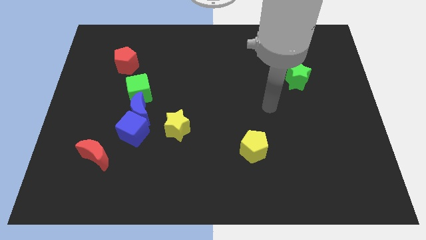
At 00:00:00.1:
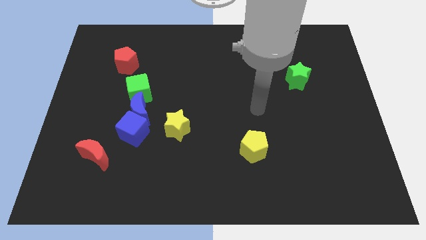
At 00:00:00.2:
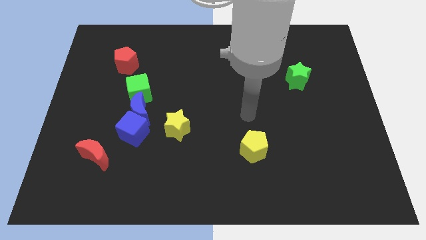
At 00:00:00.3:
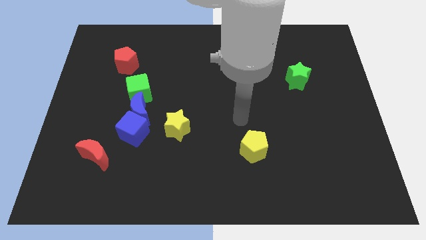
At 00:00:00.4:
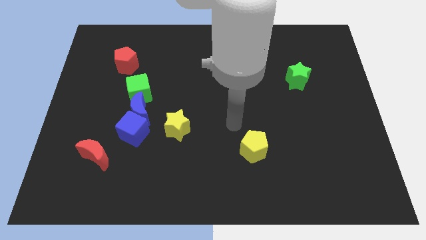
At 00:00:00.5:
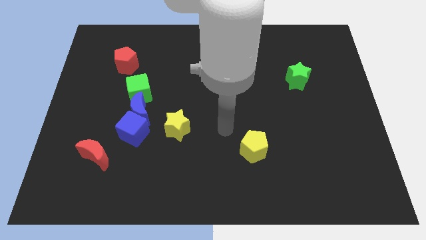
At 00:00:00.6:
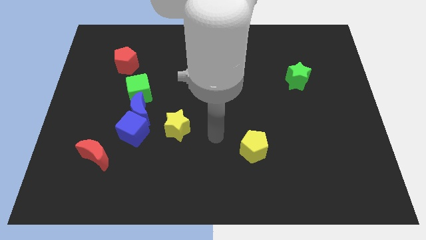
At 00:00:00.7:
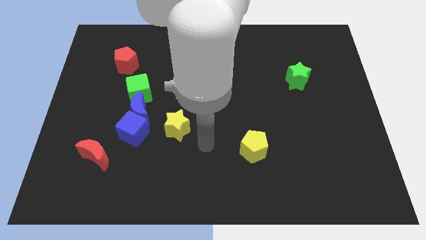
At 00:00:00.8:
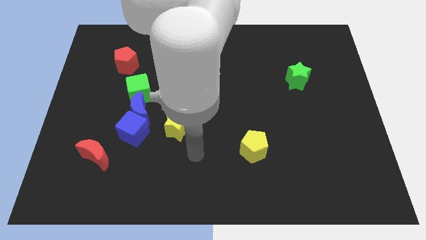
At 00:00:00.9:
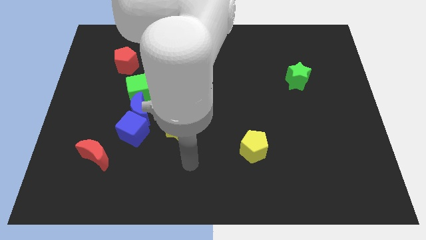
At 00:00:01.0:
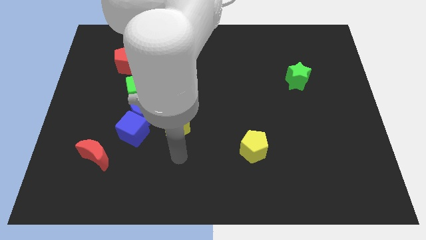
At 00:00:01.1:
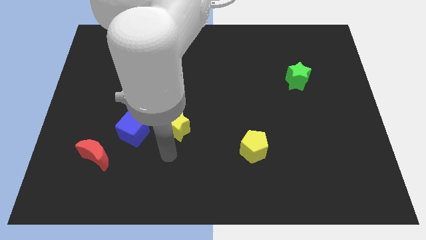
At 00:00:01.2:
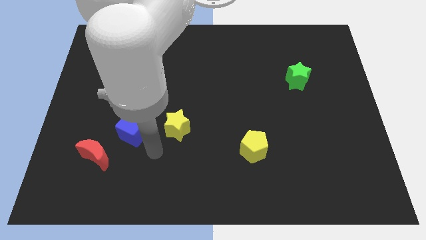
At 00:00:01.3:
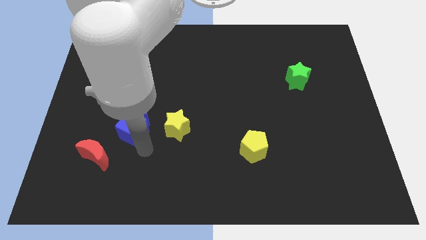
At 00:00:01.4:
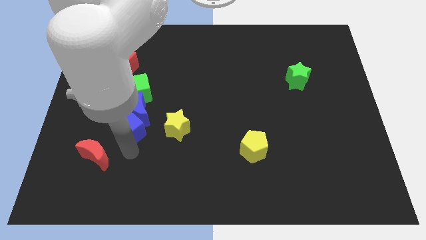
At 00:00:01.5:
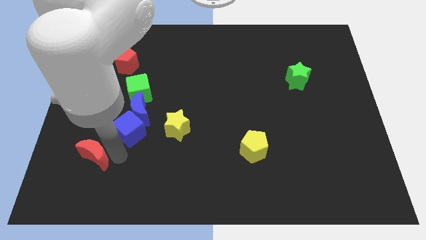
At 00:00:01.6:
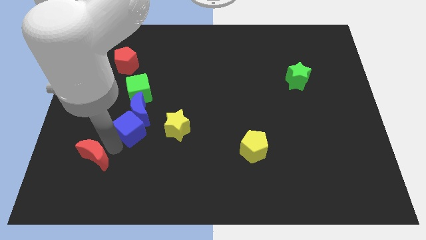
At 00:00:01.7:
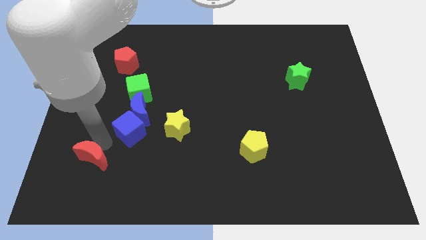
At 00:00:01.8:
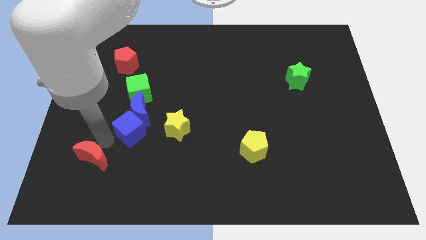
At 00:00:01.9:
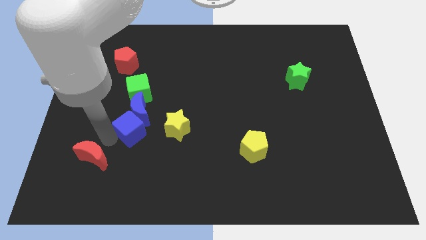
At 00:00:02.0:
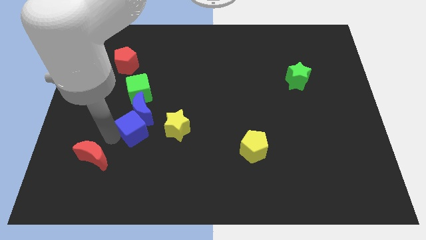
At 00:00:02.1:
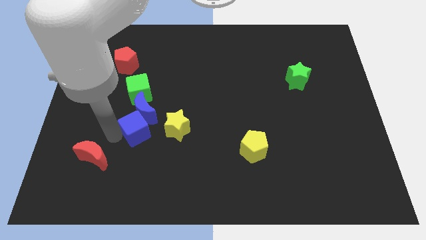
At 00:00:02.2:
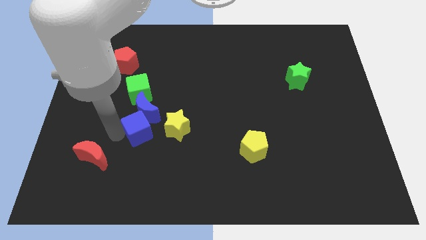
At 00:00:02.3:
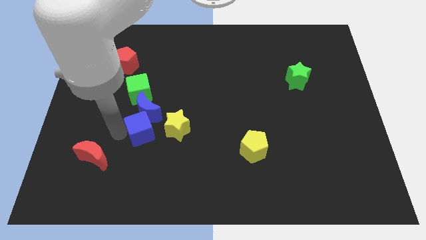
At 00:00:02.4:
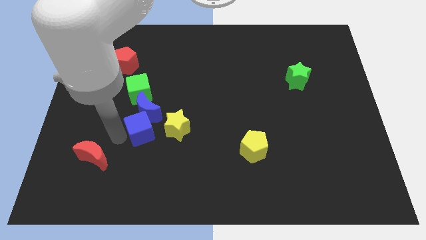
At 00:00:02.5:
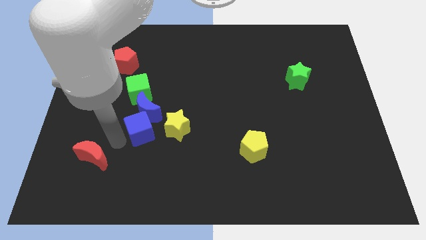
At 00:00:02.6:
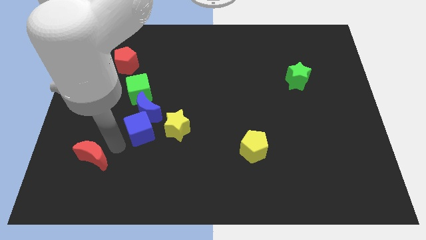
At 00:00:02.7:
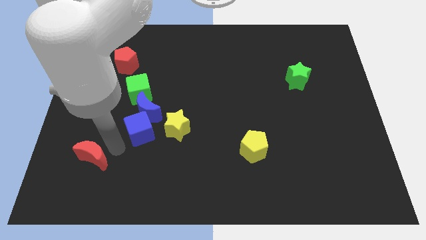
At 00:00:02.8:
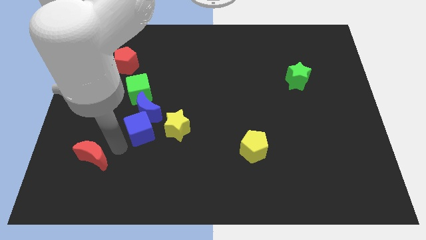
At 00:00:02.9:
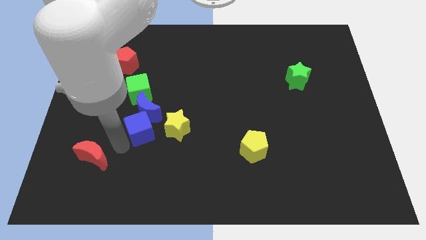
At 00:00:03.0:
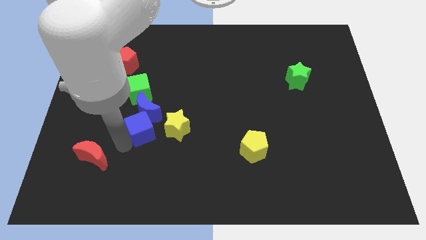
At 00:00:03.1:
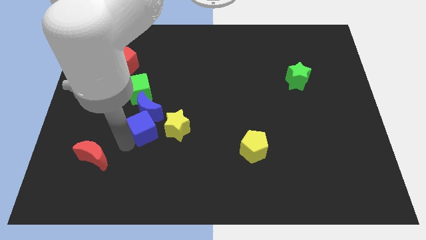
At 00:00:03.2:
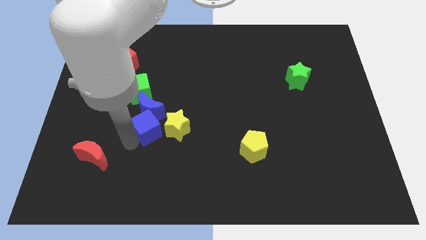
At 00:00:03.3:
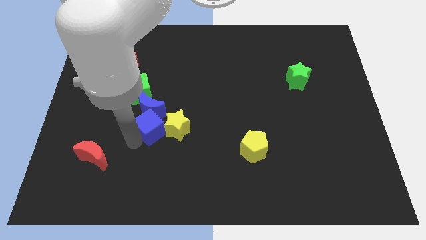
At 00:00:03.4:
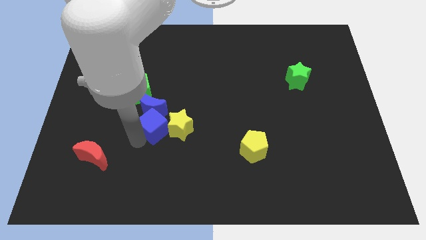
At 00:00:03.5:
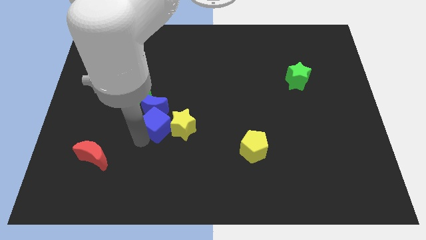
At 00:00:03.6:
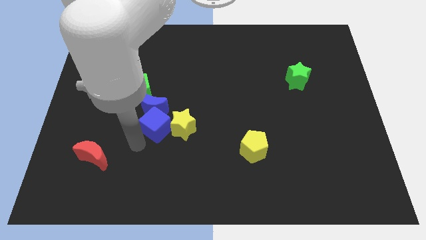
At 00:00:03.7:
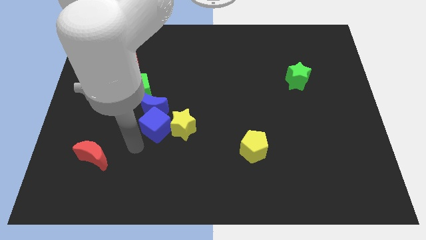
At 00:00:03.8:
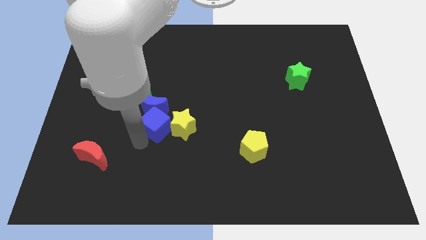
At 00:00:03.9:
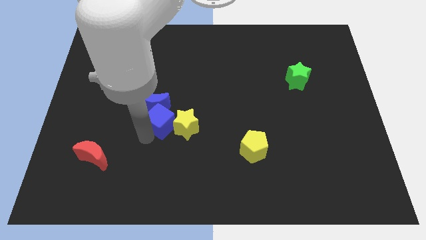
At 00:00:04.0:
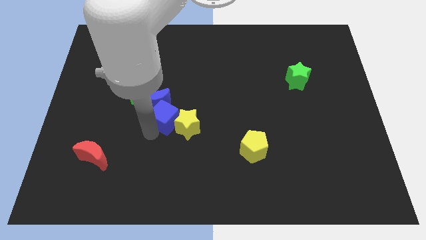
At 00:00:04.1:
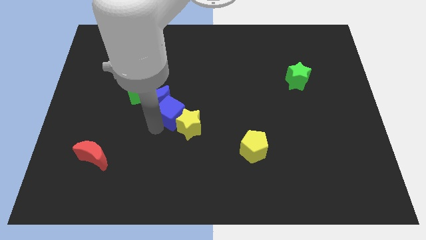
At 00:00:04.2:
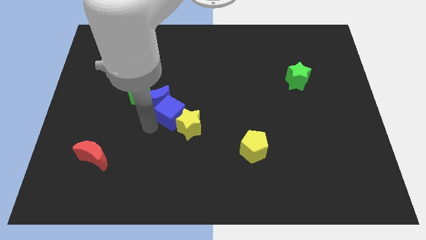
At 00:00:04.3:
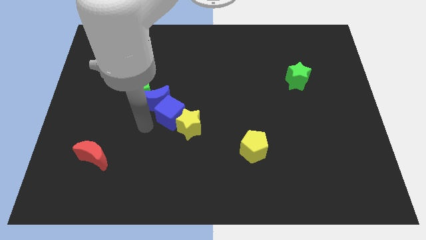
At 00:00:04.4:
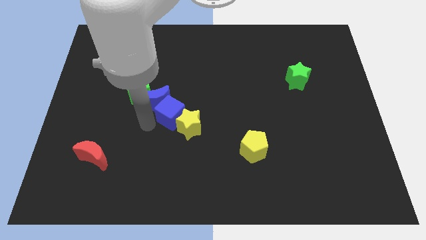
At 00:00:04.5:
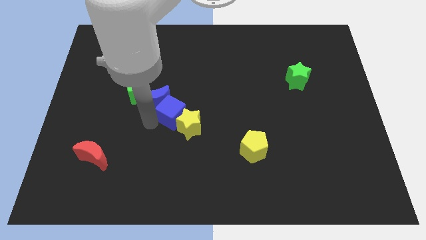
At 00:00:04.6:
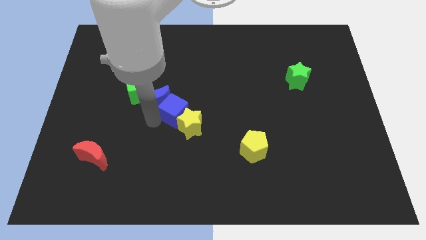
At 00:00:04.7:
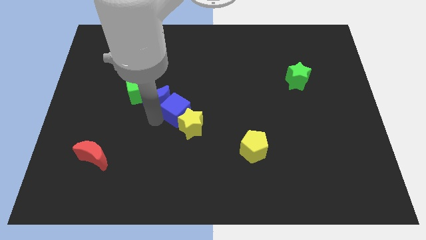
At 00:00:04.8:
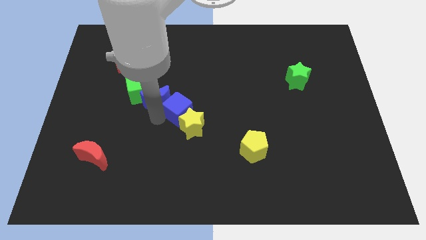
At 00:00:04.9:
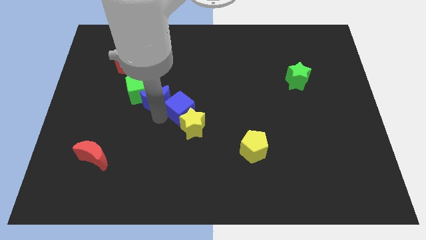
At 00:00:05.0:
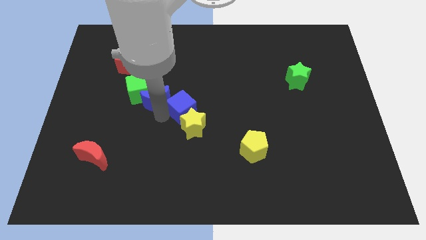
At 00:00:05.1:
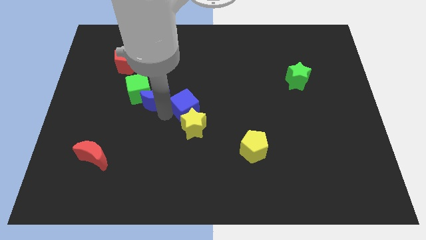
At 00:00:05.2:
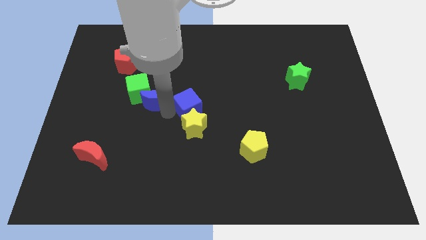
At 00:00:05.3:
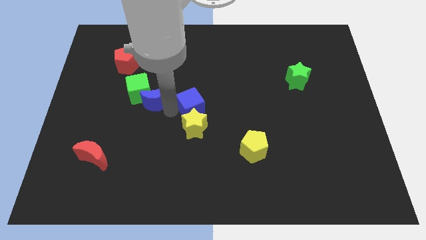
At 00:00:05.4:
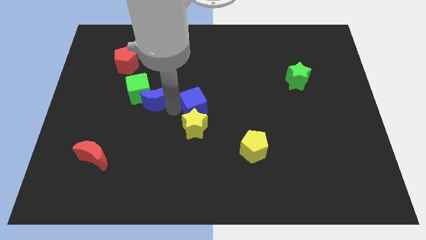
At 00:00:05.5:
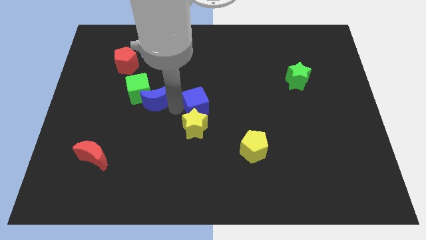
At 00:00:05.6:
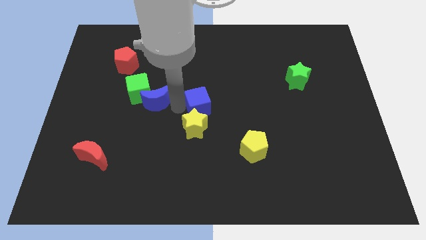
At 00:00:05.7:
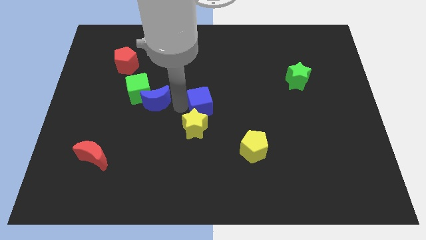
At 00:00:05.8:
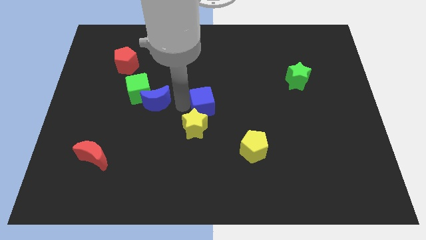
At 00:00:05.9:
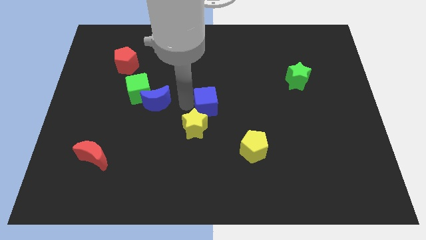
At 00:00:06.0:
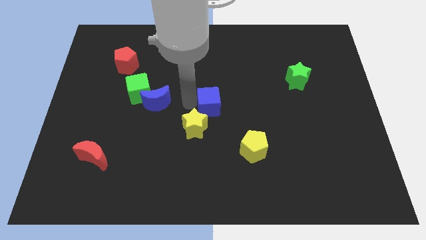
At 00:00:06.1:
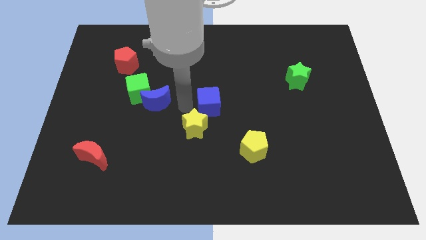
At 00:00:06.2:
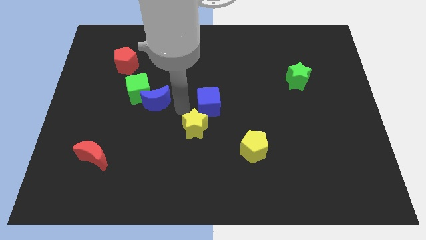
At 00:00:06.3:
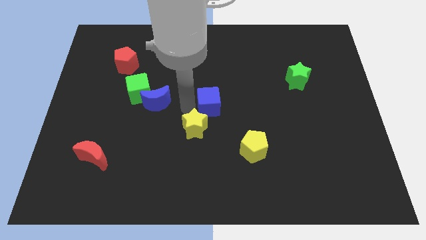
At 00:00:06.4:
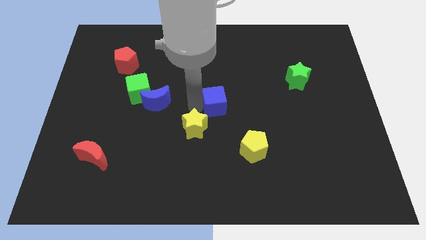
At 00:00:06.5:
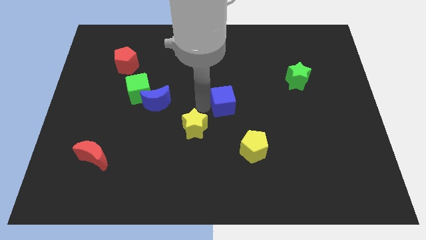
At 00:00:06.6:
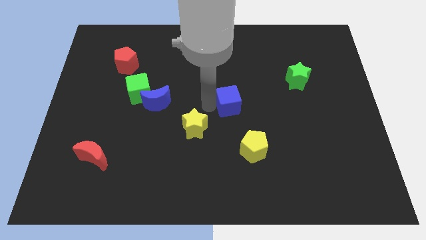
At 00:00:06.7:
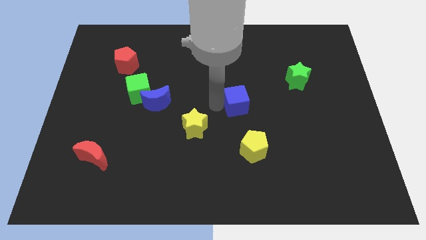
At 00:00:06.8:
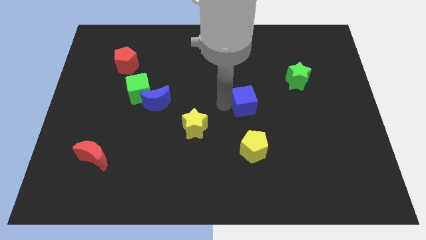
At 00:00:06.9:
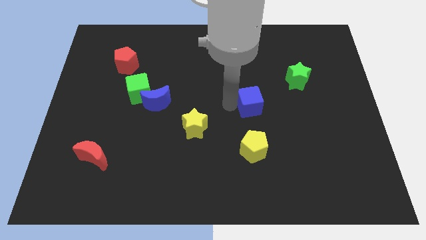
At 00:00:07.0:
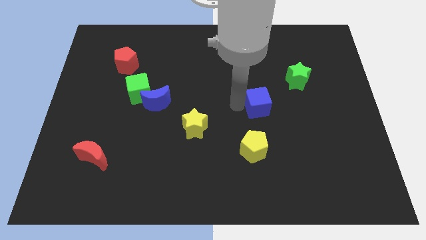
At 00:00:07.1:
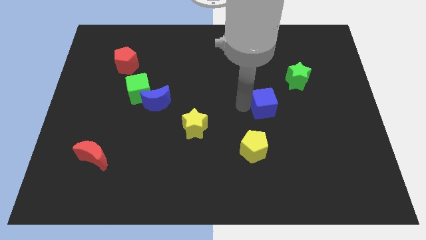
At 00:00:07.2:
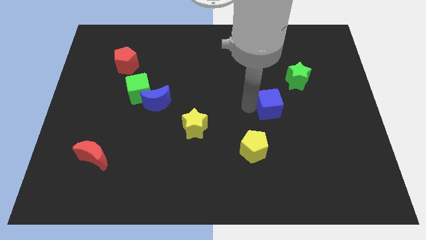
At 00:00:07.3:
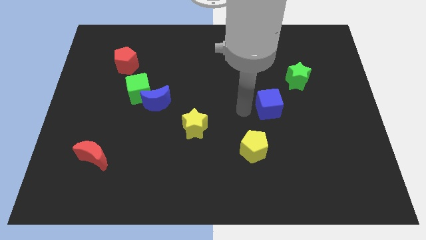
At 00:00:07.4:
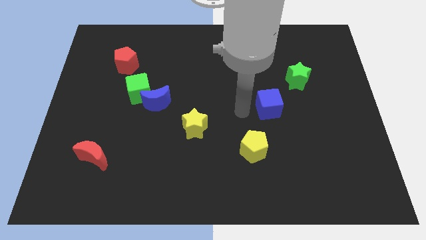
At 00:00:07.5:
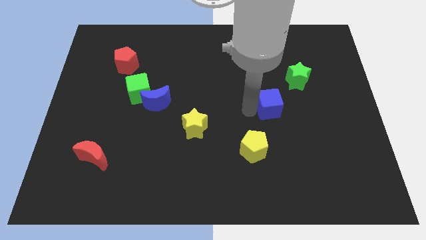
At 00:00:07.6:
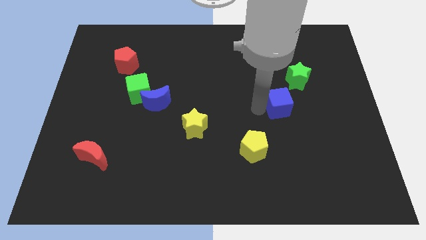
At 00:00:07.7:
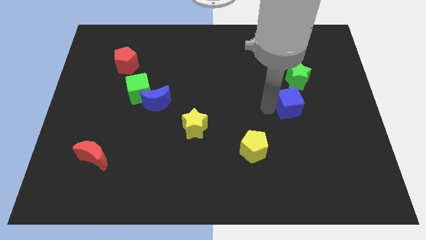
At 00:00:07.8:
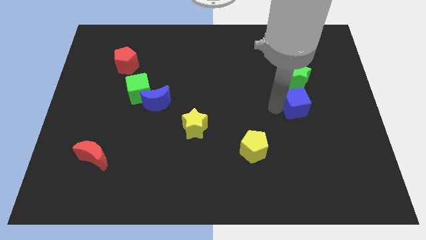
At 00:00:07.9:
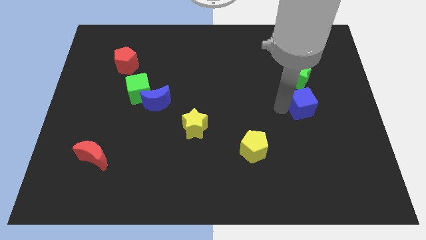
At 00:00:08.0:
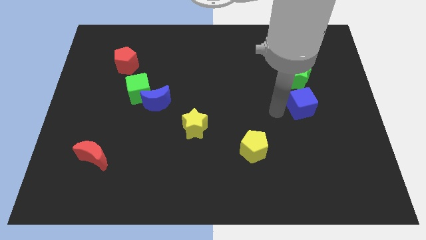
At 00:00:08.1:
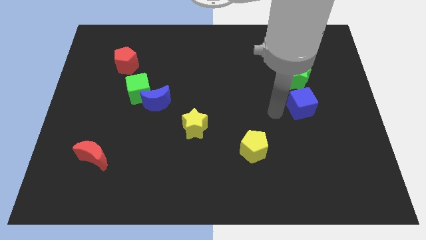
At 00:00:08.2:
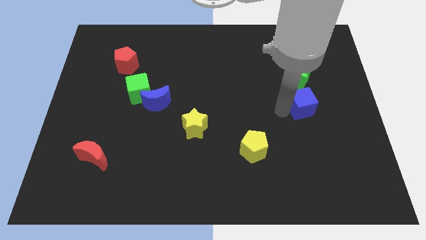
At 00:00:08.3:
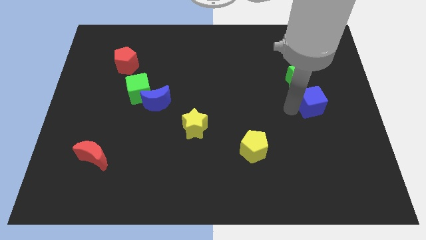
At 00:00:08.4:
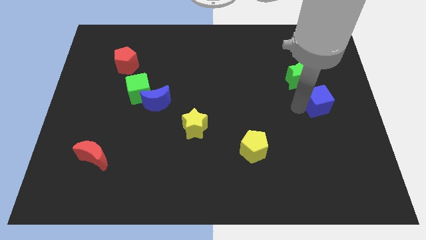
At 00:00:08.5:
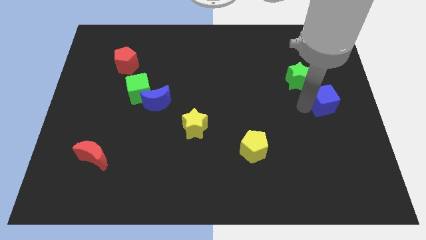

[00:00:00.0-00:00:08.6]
put the blue cube to the right side
